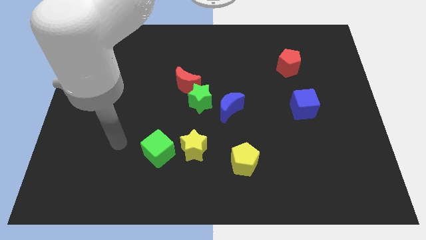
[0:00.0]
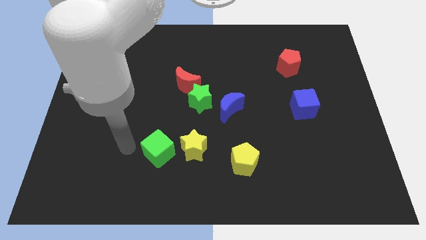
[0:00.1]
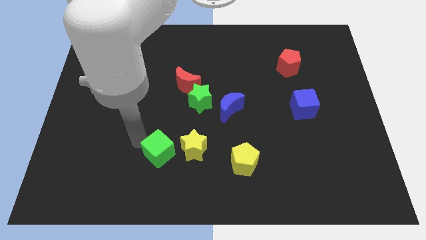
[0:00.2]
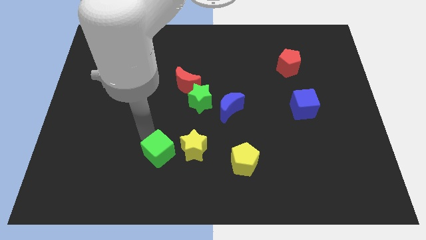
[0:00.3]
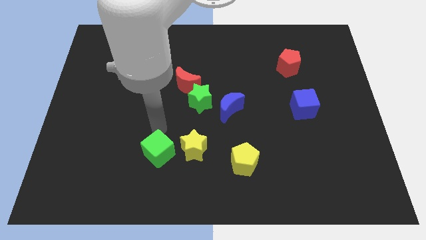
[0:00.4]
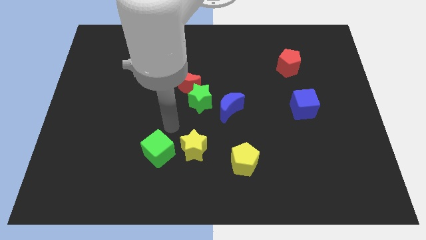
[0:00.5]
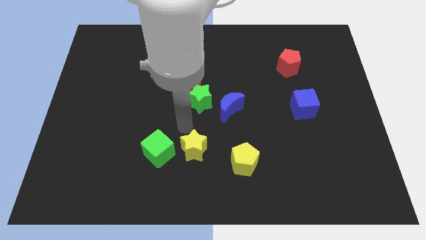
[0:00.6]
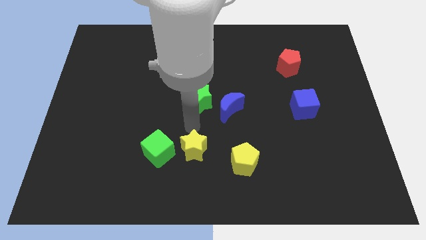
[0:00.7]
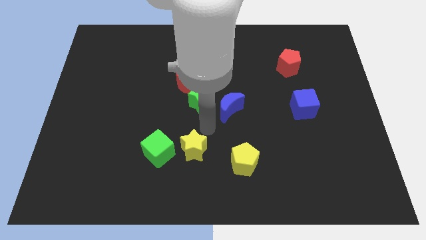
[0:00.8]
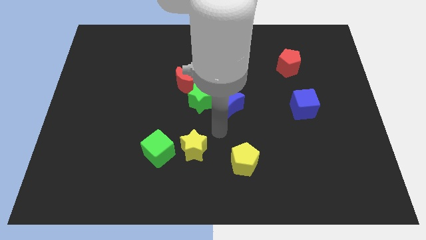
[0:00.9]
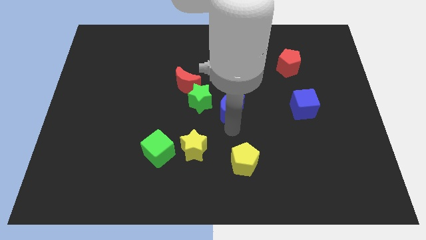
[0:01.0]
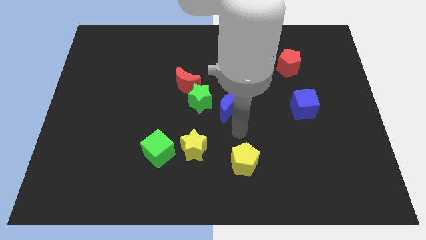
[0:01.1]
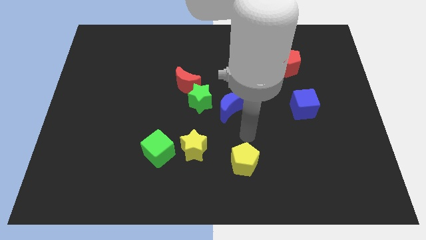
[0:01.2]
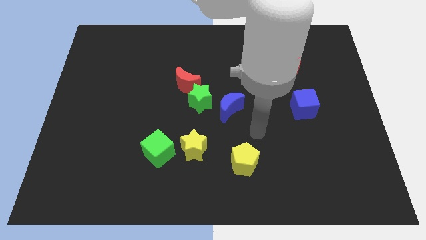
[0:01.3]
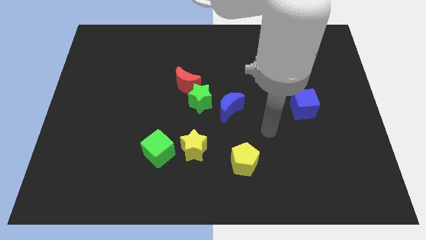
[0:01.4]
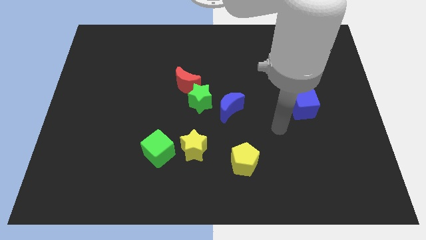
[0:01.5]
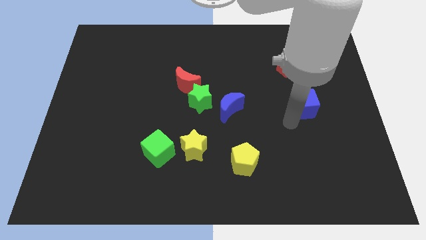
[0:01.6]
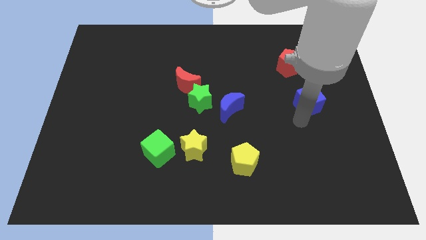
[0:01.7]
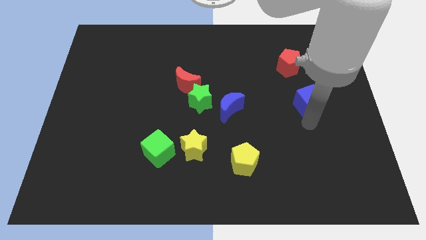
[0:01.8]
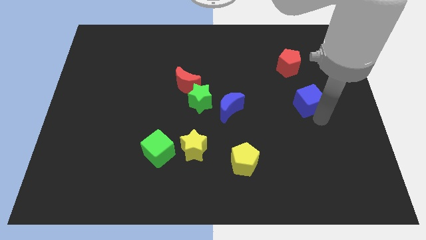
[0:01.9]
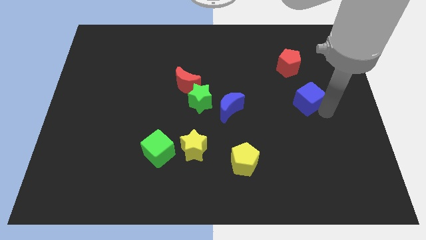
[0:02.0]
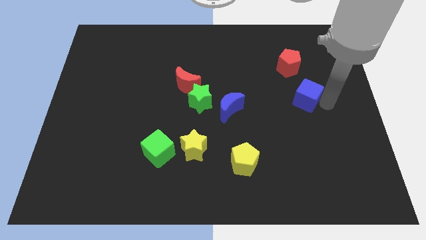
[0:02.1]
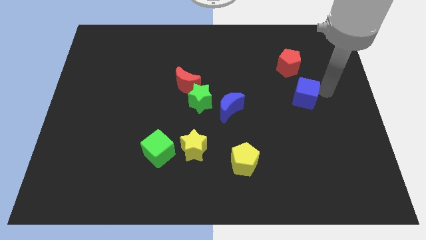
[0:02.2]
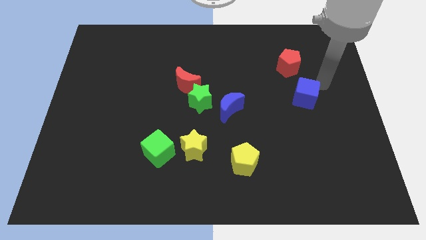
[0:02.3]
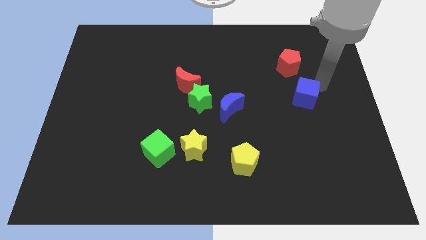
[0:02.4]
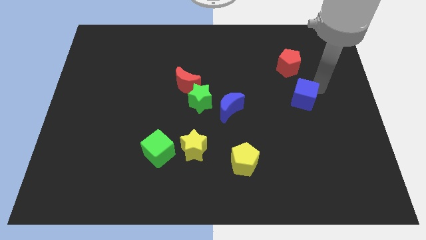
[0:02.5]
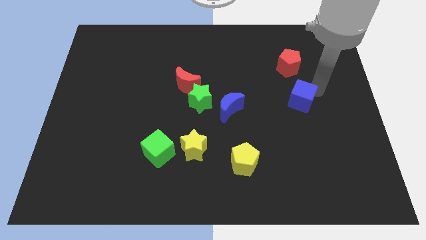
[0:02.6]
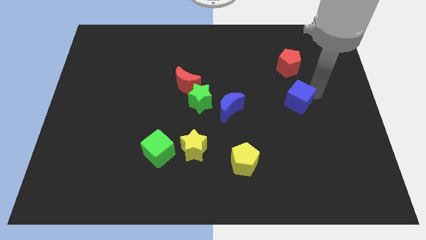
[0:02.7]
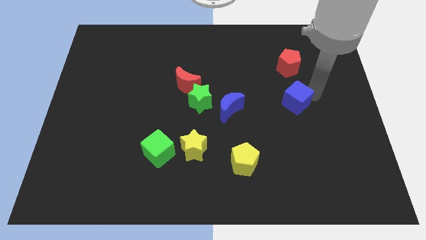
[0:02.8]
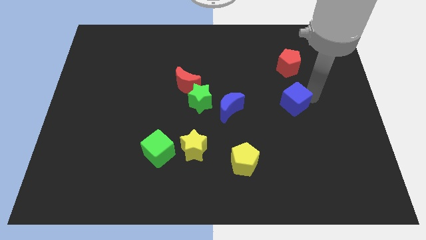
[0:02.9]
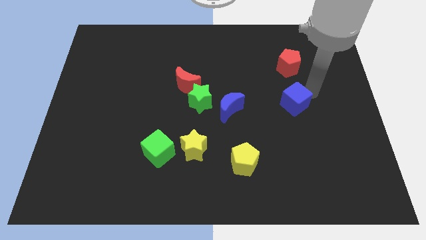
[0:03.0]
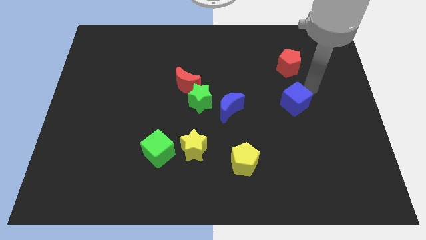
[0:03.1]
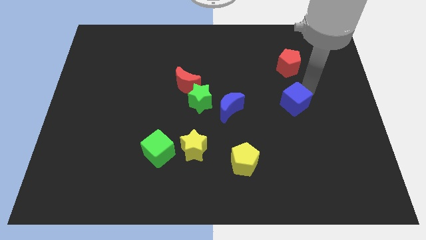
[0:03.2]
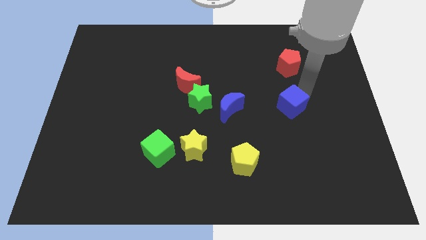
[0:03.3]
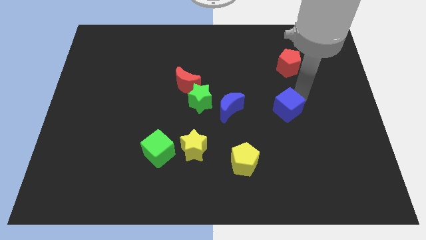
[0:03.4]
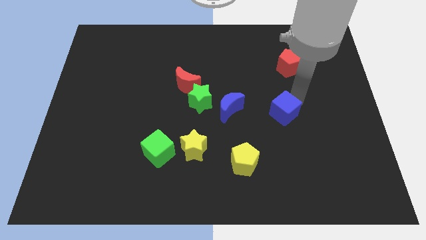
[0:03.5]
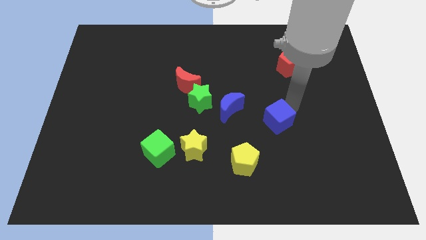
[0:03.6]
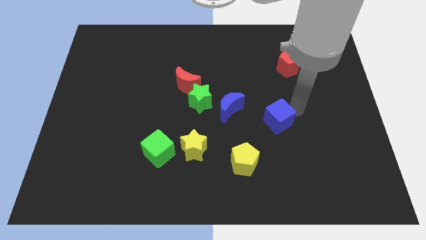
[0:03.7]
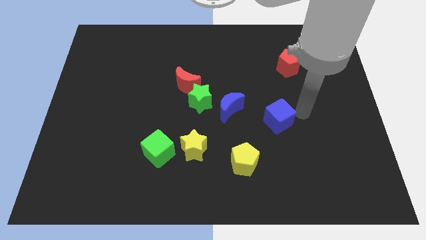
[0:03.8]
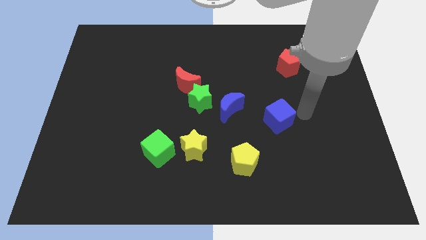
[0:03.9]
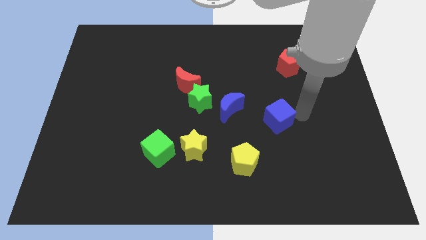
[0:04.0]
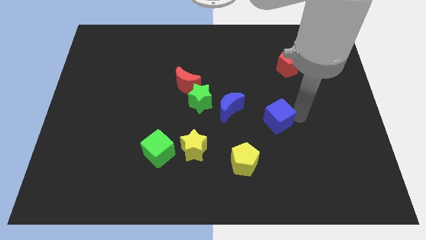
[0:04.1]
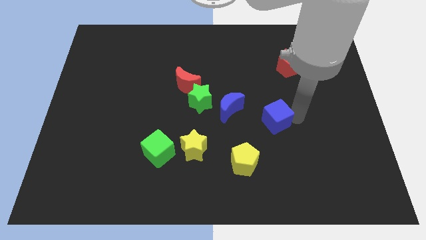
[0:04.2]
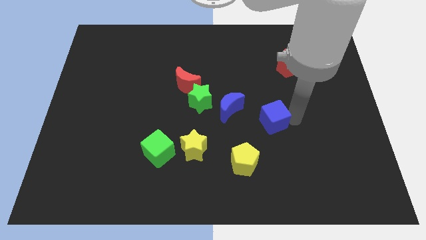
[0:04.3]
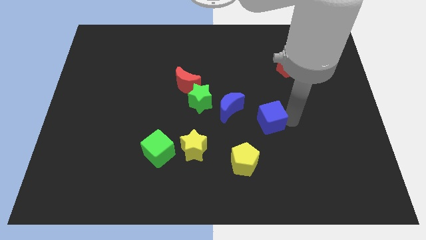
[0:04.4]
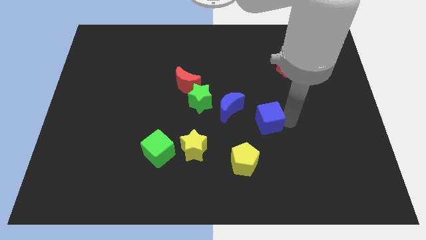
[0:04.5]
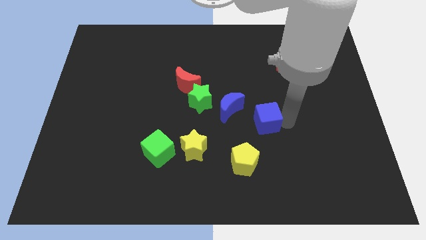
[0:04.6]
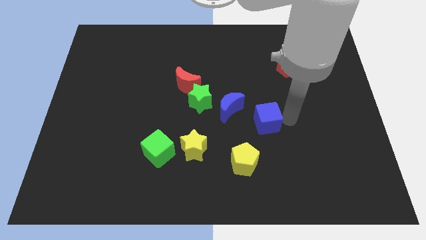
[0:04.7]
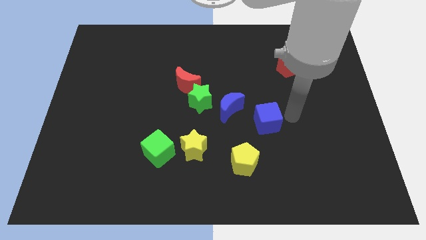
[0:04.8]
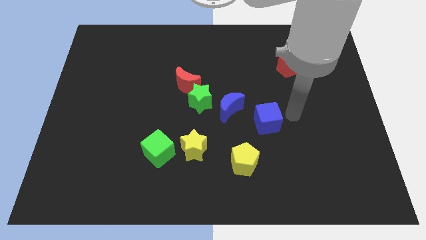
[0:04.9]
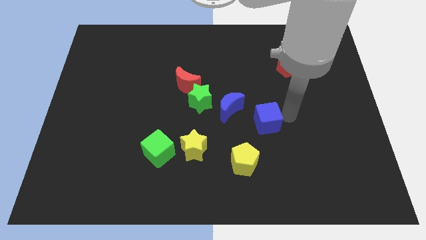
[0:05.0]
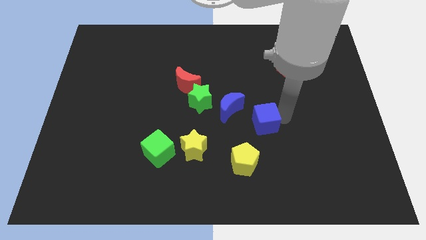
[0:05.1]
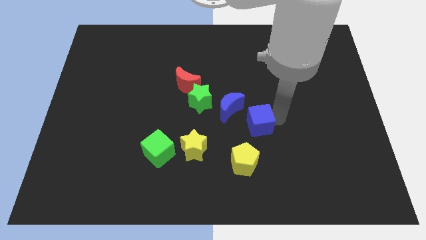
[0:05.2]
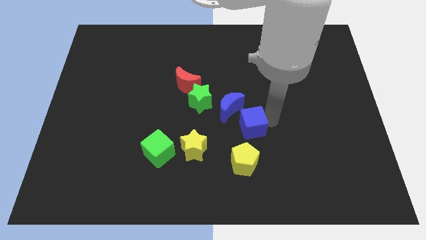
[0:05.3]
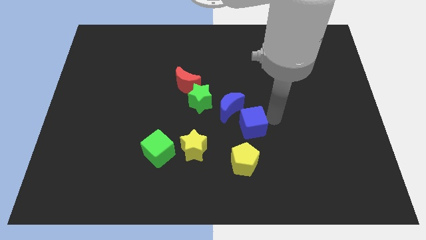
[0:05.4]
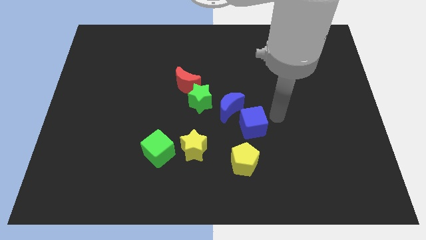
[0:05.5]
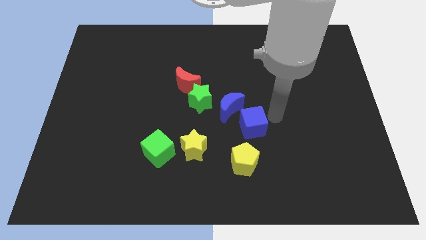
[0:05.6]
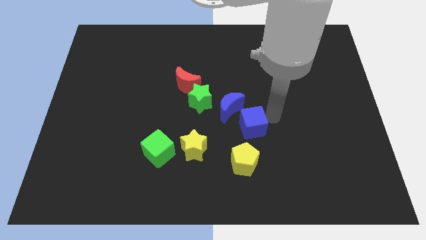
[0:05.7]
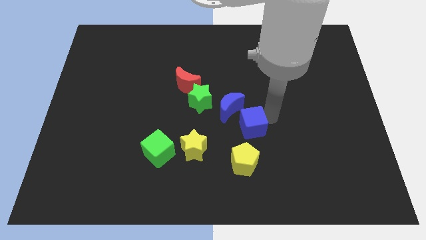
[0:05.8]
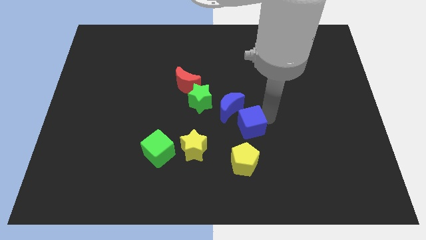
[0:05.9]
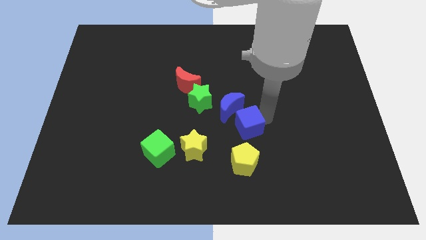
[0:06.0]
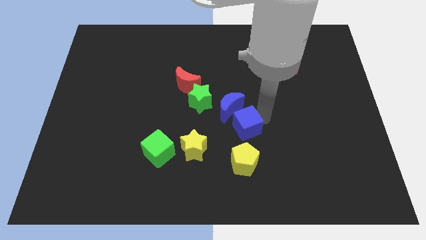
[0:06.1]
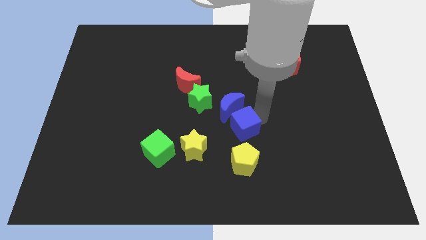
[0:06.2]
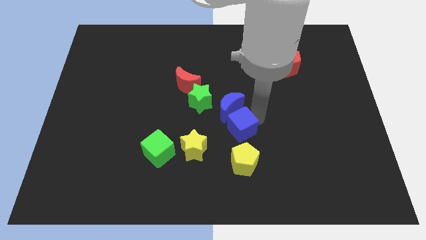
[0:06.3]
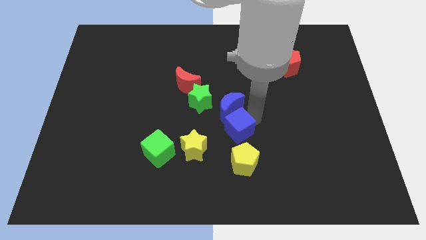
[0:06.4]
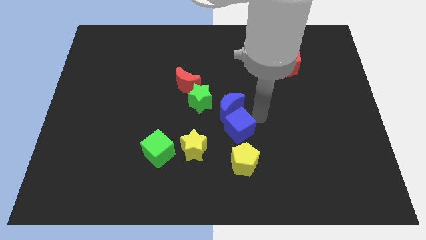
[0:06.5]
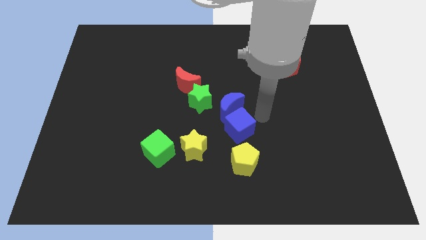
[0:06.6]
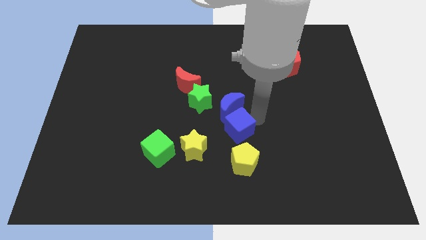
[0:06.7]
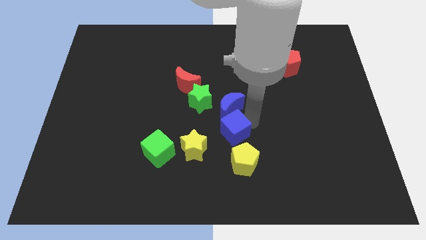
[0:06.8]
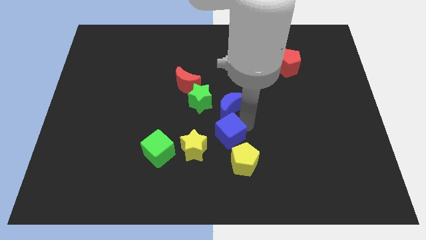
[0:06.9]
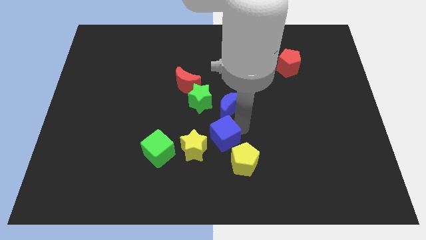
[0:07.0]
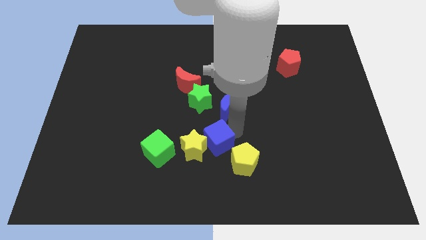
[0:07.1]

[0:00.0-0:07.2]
move the blue cube next to the yellow star

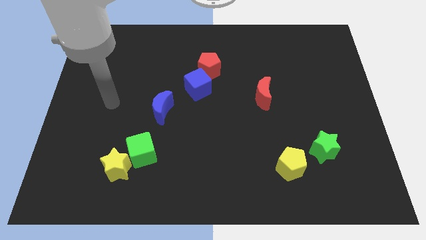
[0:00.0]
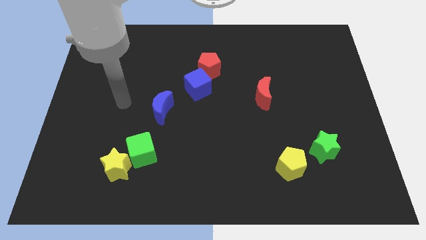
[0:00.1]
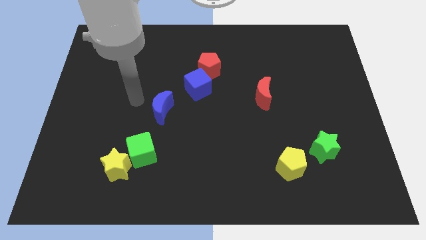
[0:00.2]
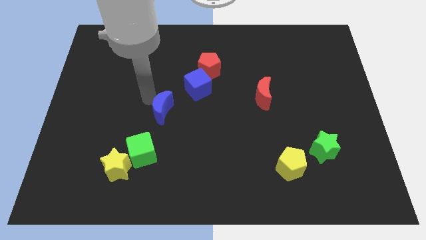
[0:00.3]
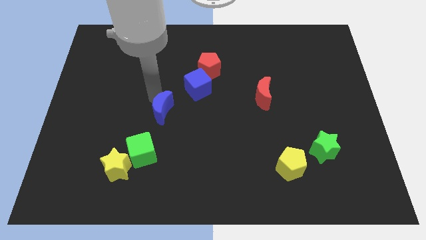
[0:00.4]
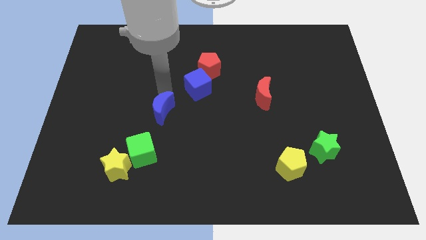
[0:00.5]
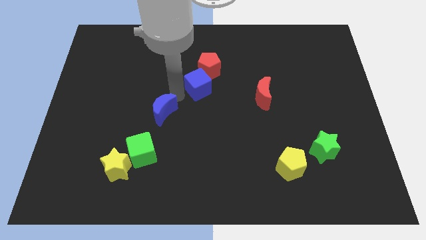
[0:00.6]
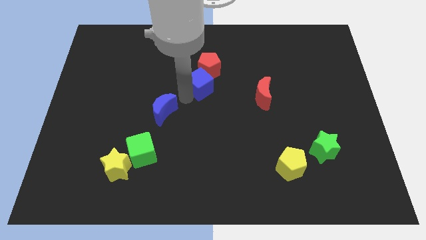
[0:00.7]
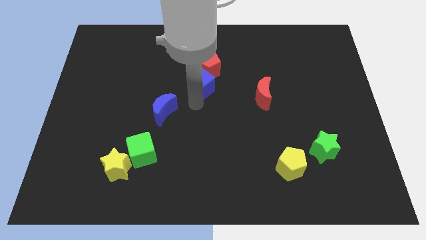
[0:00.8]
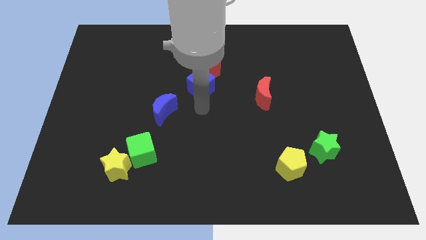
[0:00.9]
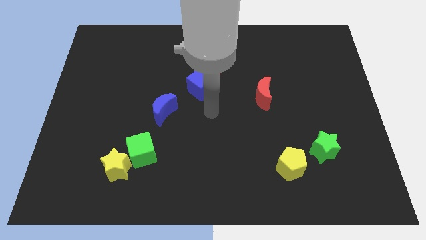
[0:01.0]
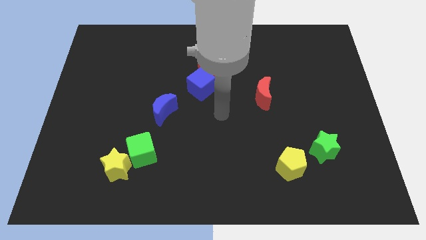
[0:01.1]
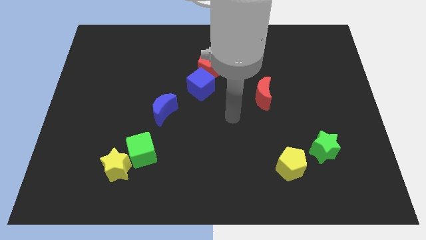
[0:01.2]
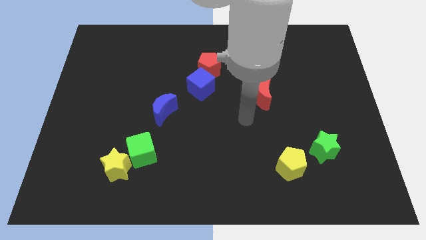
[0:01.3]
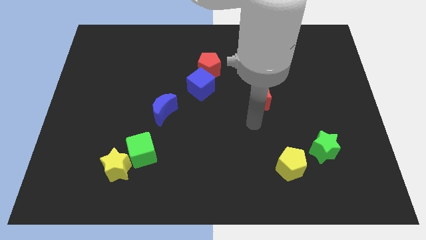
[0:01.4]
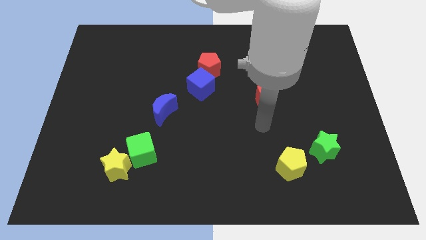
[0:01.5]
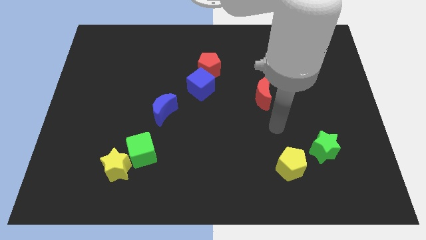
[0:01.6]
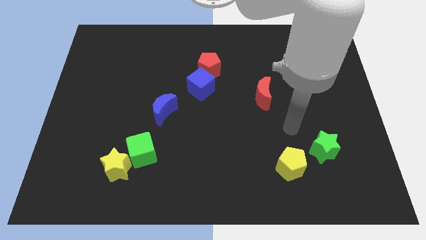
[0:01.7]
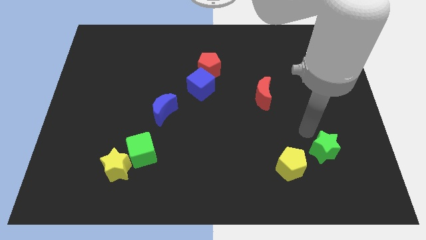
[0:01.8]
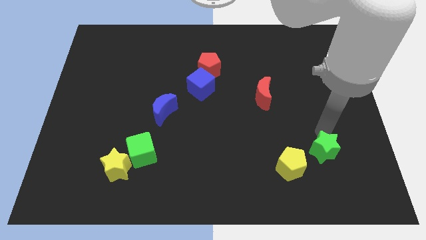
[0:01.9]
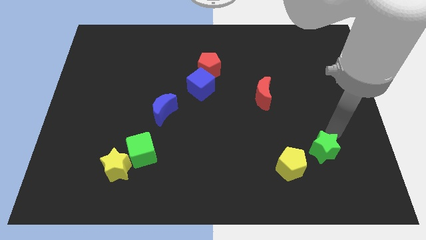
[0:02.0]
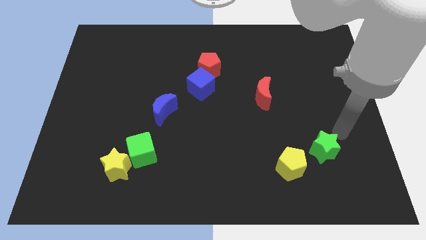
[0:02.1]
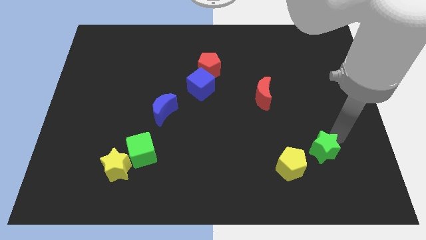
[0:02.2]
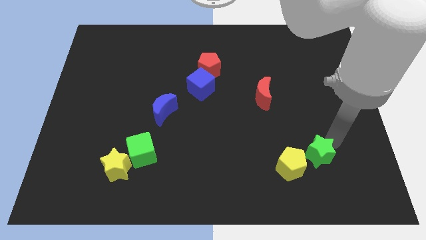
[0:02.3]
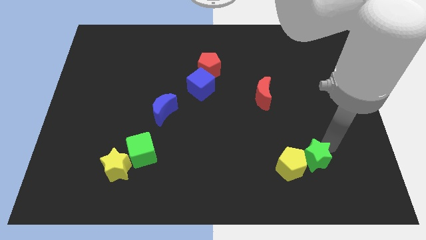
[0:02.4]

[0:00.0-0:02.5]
push the green star towards the yellow pentagon
